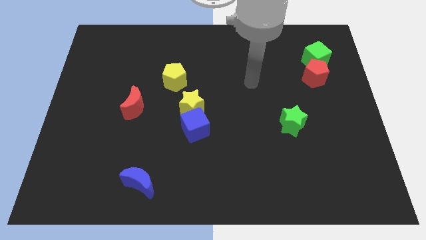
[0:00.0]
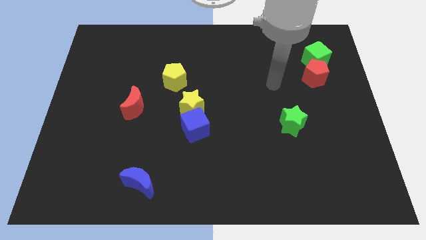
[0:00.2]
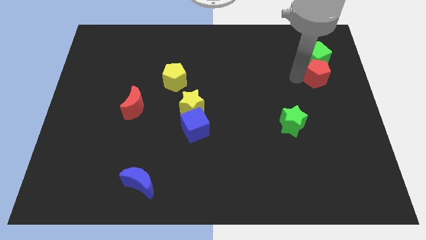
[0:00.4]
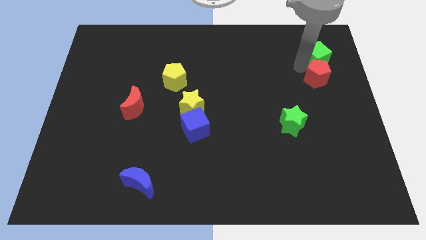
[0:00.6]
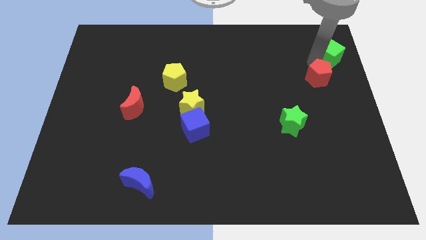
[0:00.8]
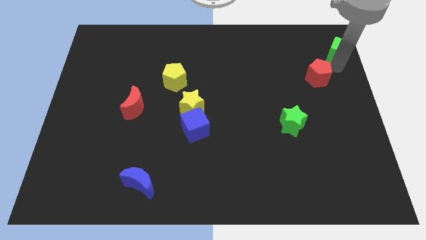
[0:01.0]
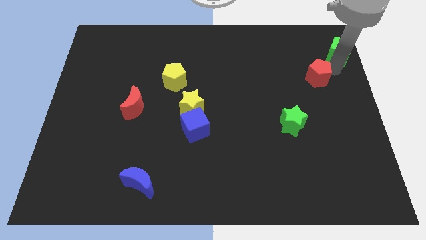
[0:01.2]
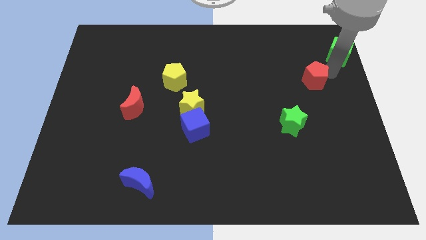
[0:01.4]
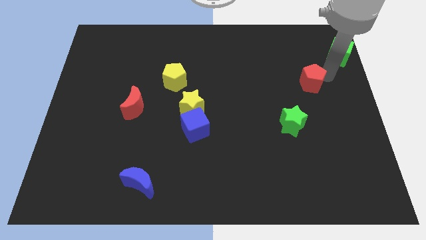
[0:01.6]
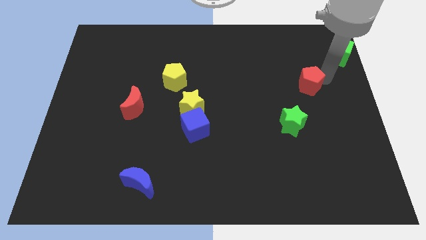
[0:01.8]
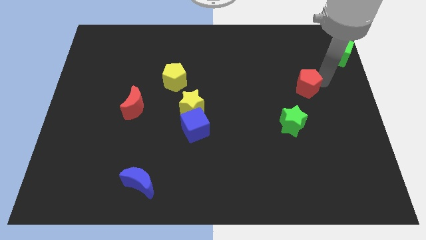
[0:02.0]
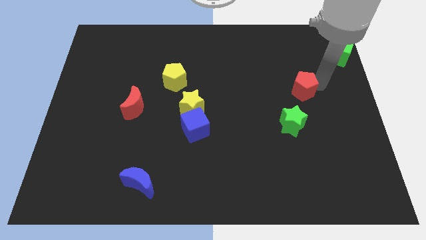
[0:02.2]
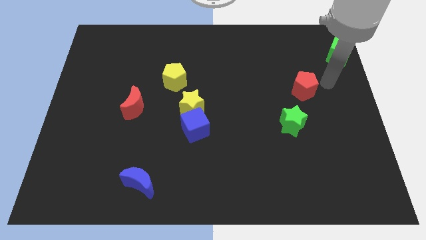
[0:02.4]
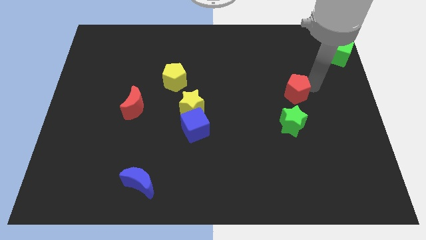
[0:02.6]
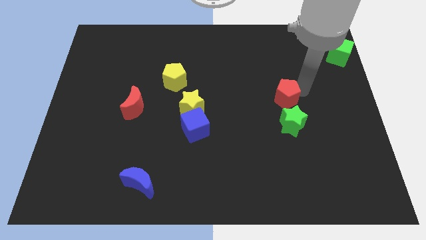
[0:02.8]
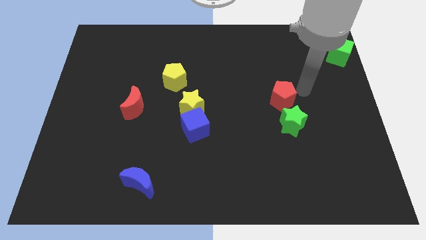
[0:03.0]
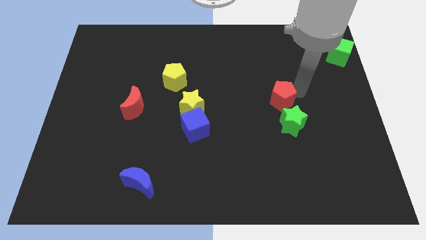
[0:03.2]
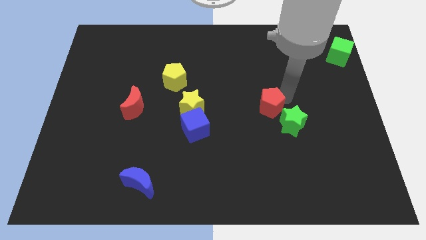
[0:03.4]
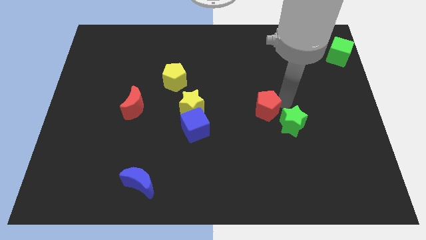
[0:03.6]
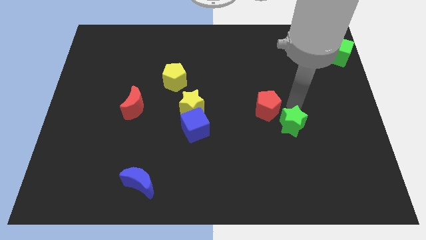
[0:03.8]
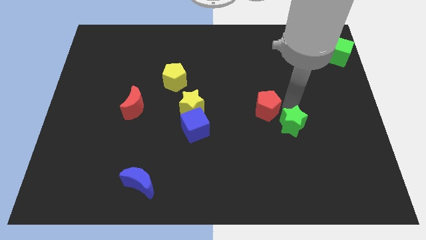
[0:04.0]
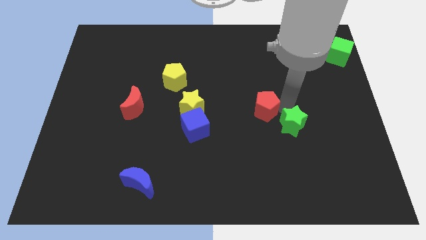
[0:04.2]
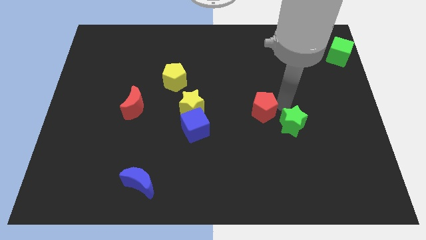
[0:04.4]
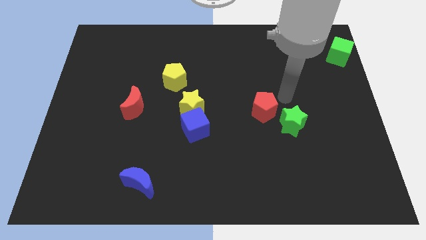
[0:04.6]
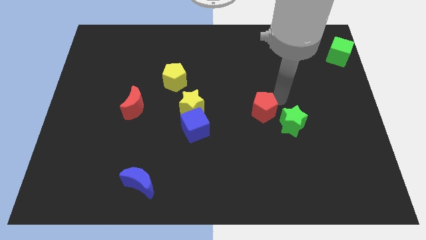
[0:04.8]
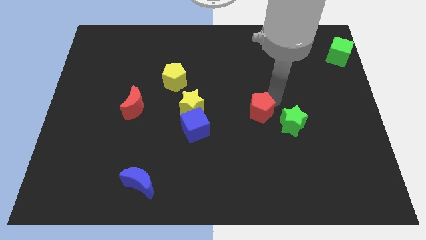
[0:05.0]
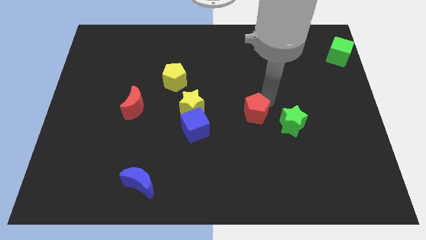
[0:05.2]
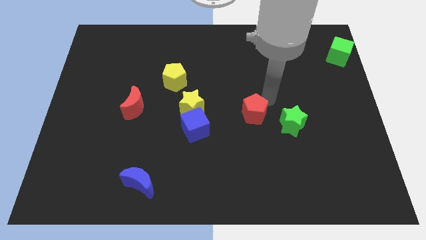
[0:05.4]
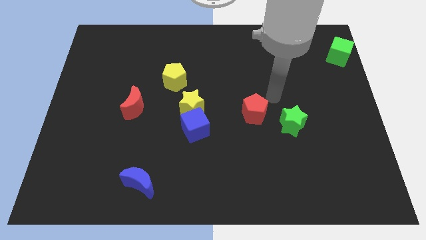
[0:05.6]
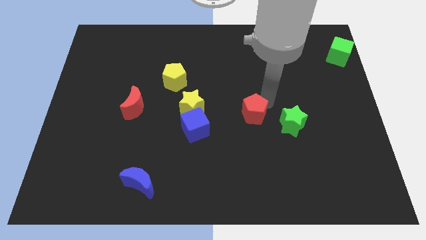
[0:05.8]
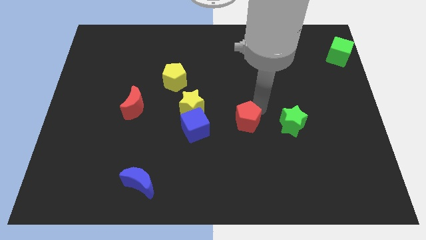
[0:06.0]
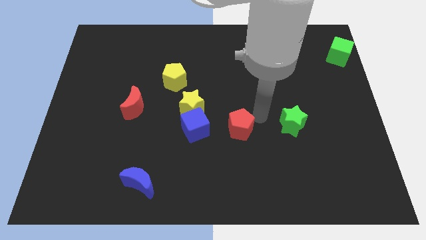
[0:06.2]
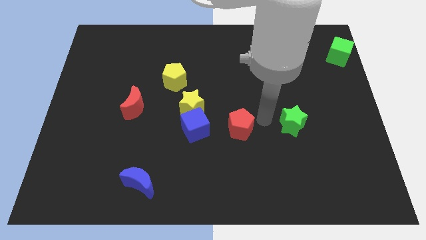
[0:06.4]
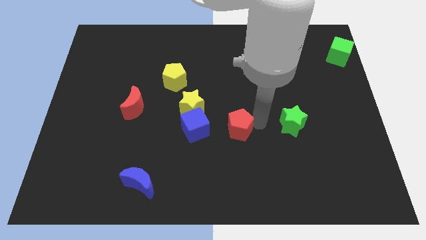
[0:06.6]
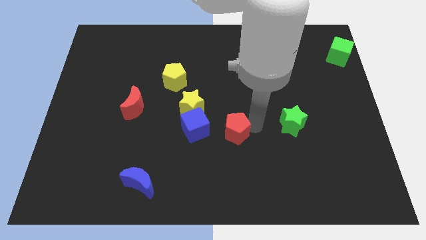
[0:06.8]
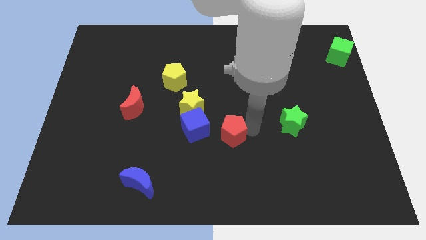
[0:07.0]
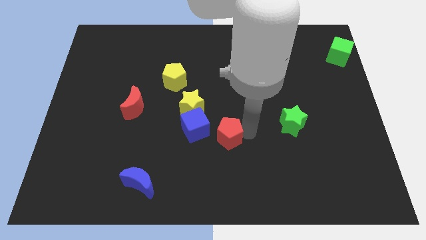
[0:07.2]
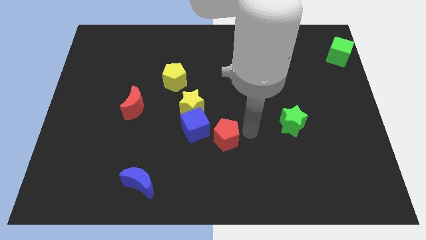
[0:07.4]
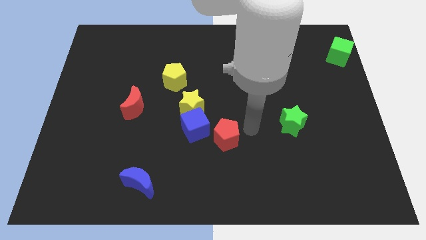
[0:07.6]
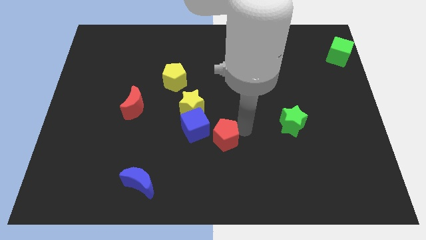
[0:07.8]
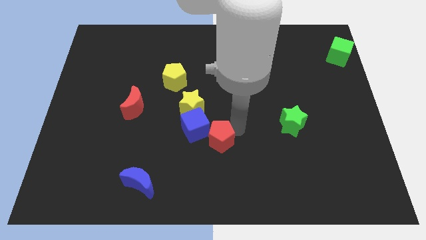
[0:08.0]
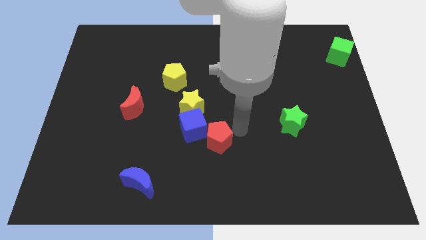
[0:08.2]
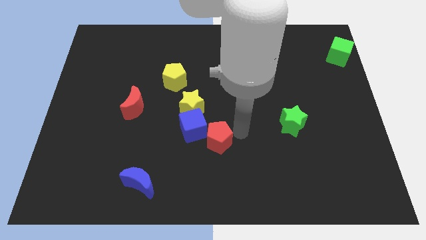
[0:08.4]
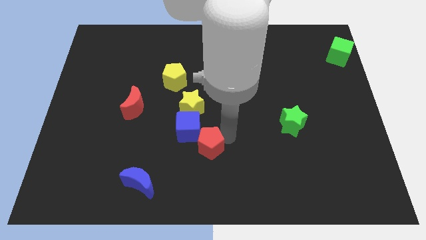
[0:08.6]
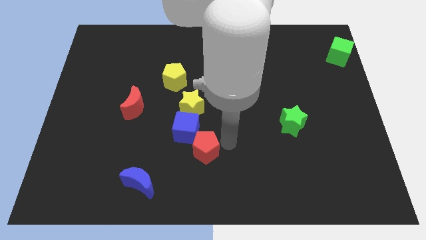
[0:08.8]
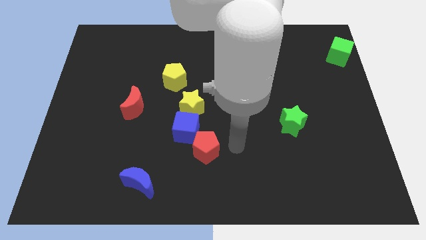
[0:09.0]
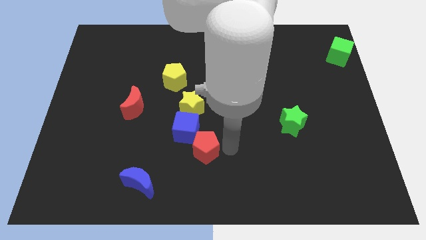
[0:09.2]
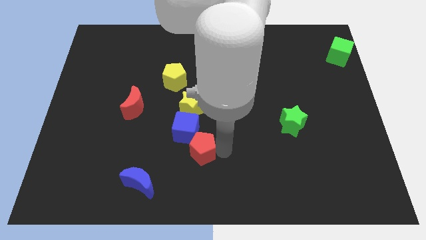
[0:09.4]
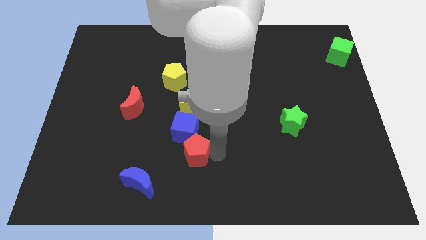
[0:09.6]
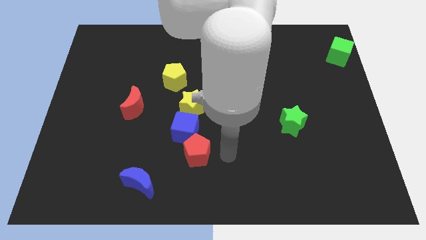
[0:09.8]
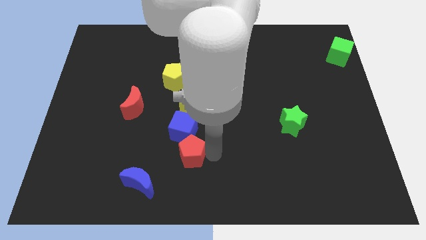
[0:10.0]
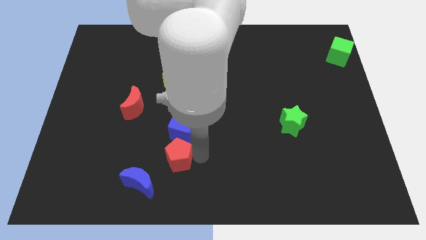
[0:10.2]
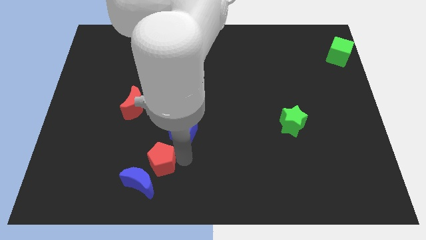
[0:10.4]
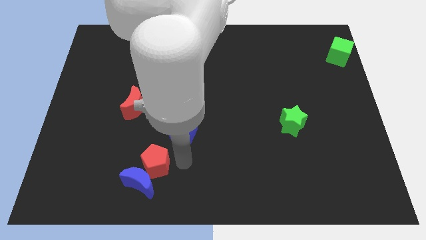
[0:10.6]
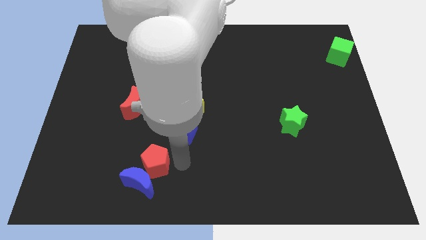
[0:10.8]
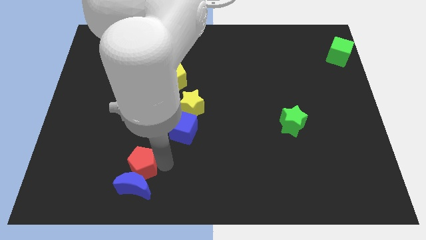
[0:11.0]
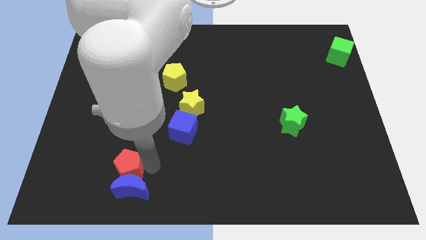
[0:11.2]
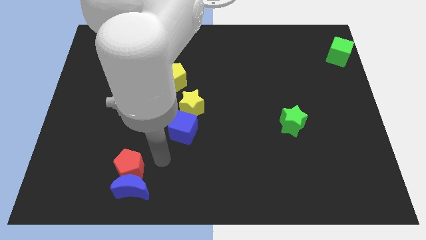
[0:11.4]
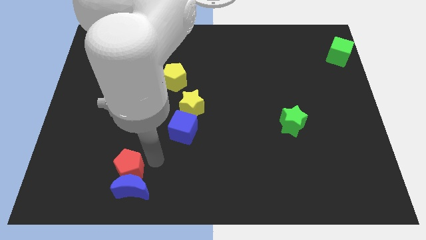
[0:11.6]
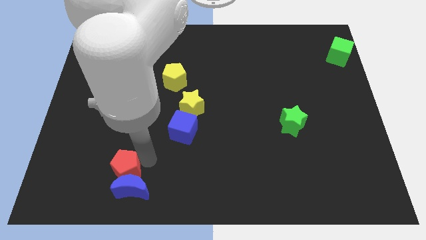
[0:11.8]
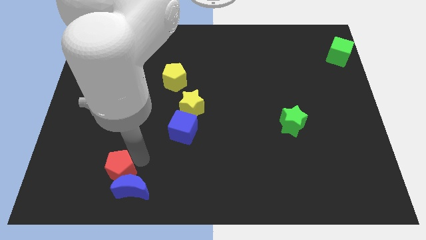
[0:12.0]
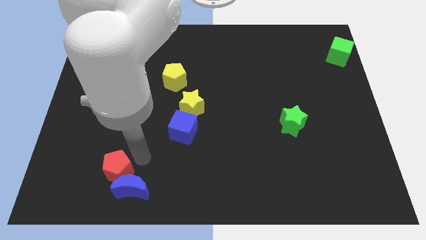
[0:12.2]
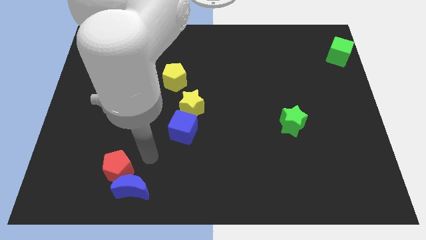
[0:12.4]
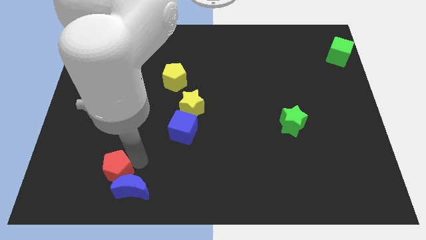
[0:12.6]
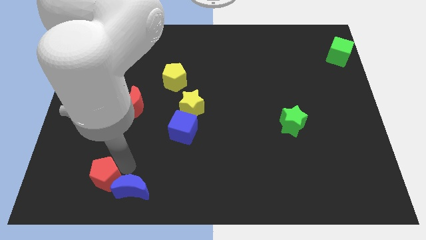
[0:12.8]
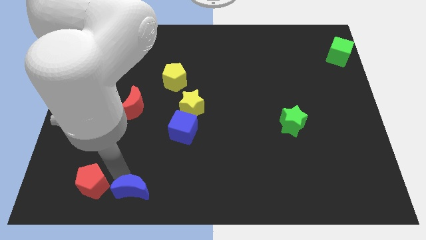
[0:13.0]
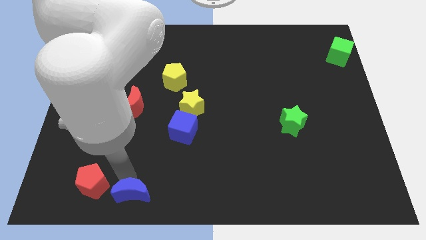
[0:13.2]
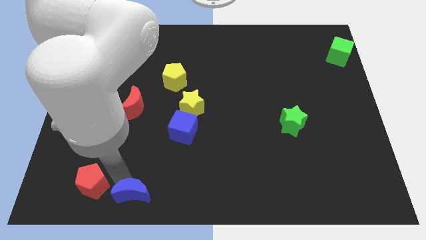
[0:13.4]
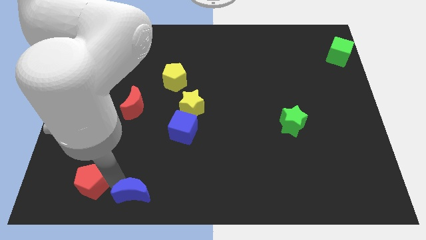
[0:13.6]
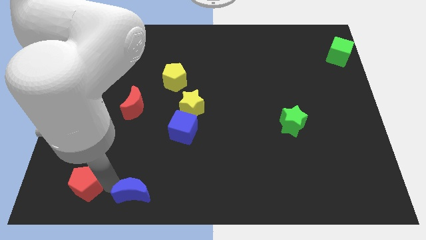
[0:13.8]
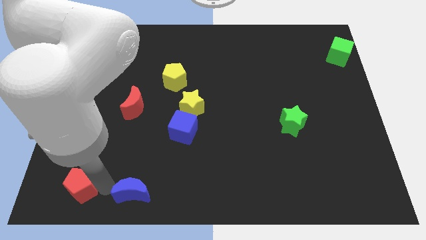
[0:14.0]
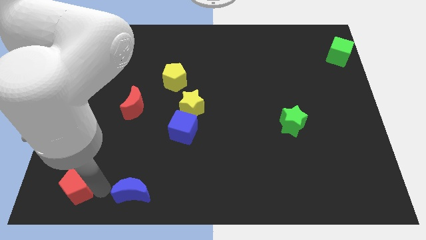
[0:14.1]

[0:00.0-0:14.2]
move the red pentagon to the bottom left

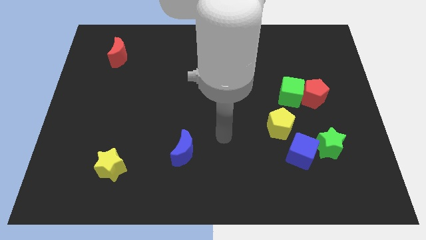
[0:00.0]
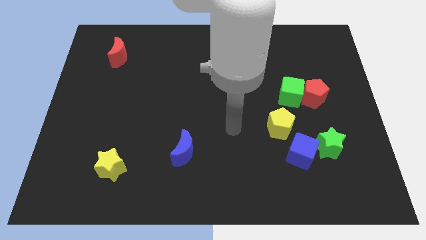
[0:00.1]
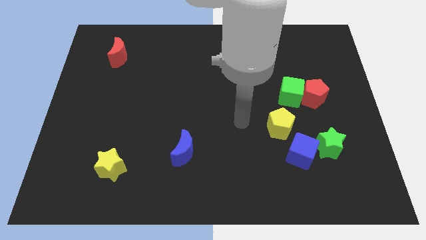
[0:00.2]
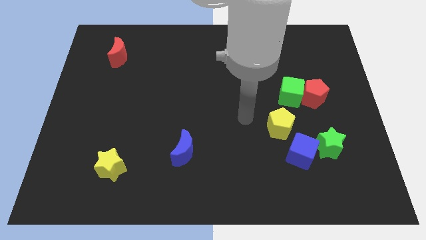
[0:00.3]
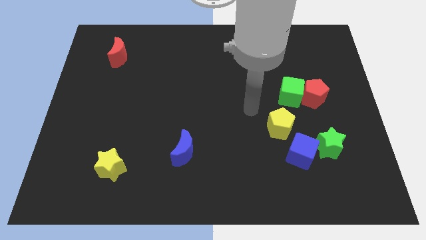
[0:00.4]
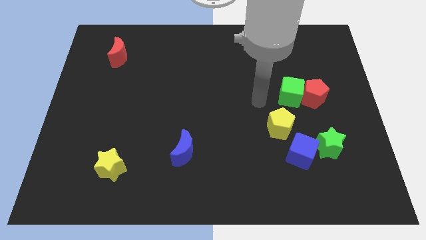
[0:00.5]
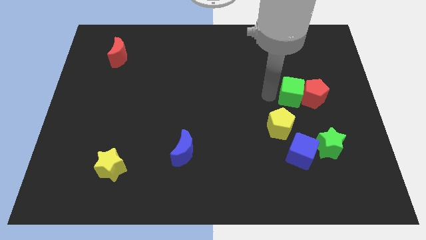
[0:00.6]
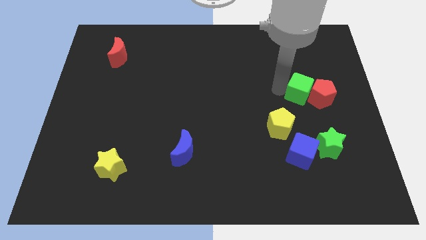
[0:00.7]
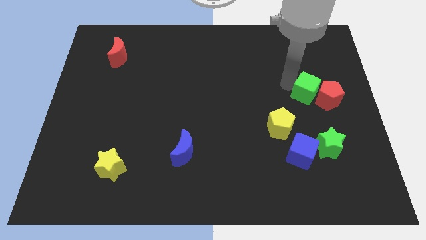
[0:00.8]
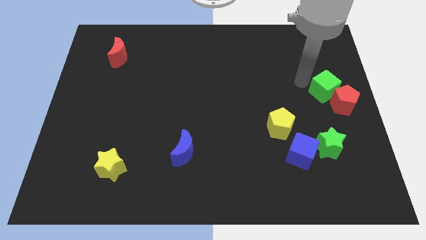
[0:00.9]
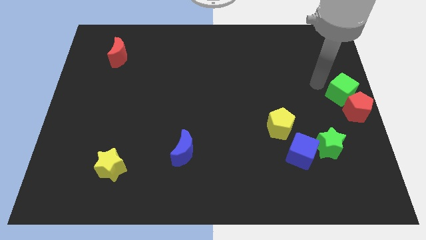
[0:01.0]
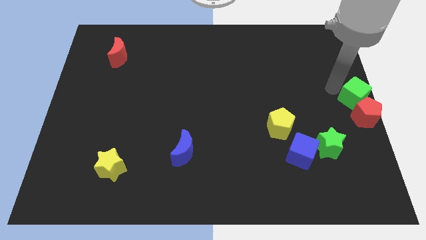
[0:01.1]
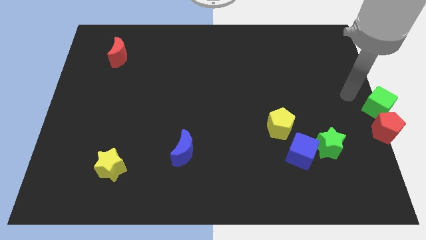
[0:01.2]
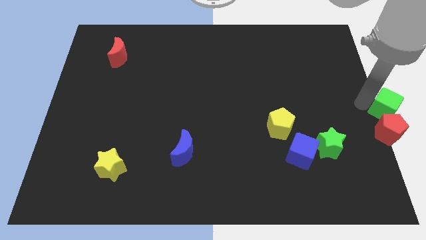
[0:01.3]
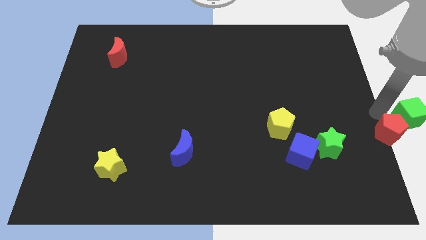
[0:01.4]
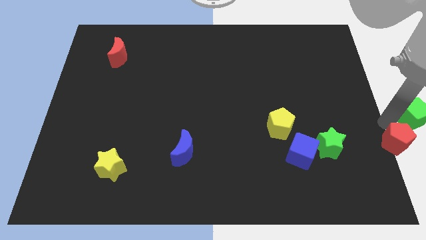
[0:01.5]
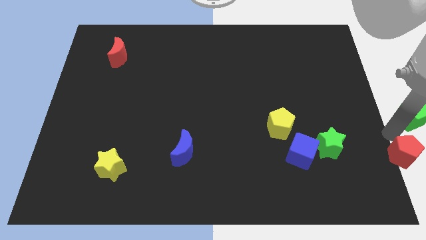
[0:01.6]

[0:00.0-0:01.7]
slide the red pentagon to the bottom right corner
